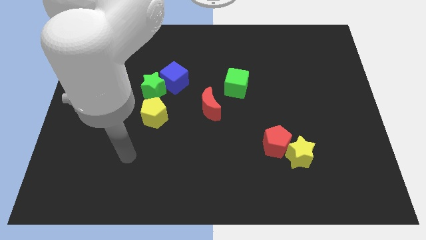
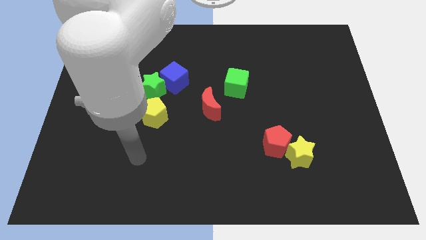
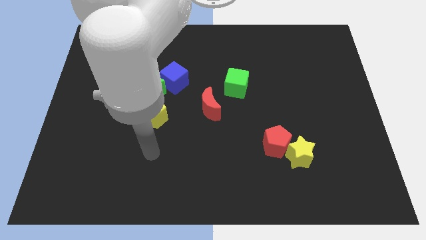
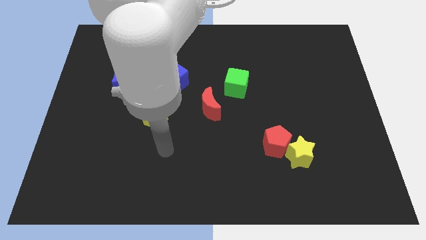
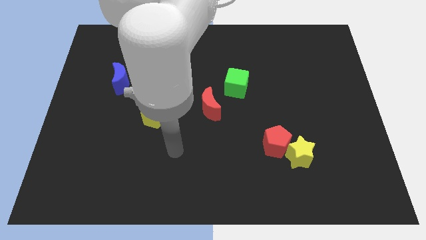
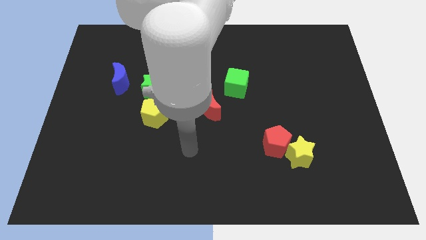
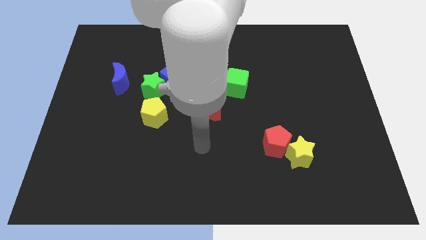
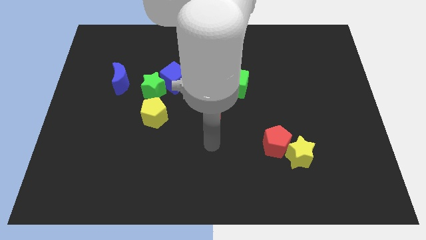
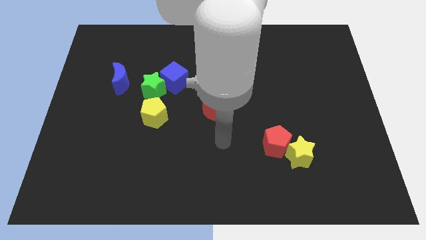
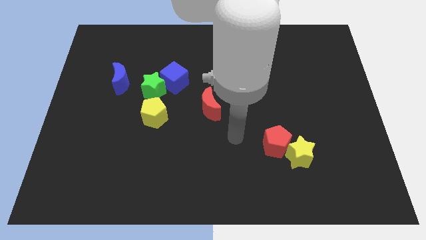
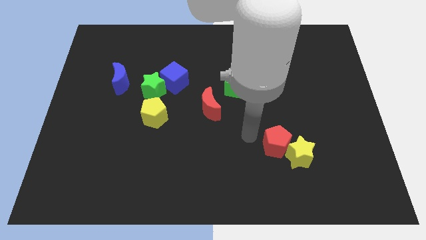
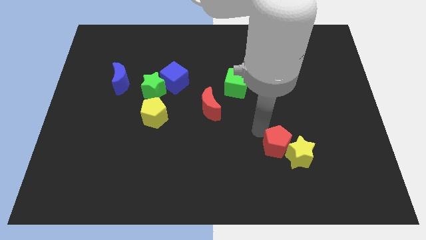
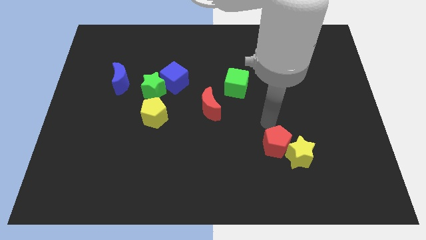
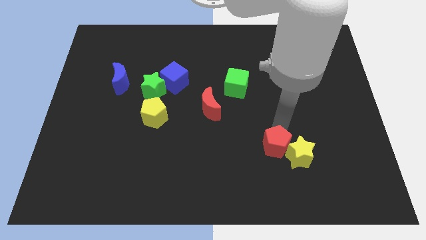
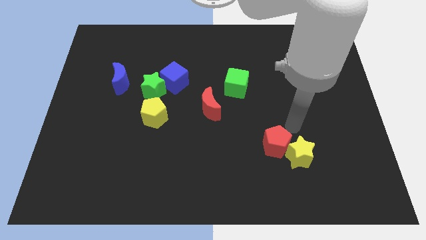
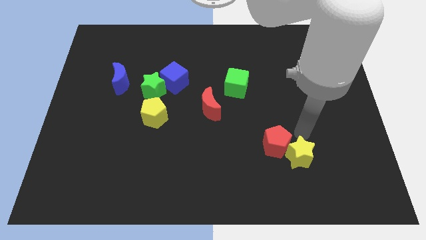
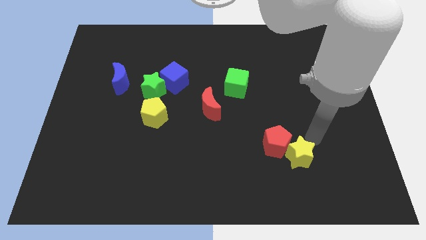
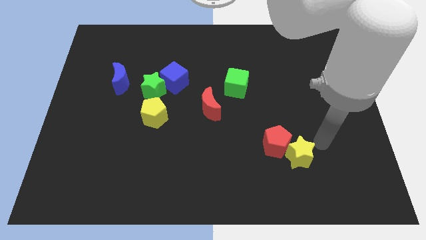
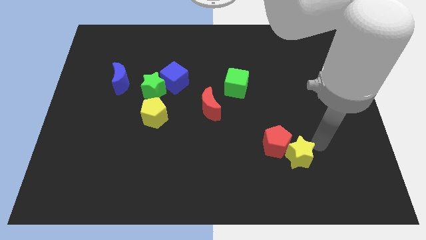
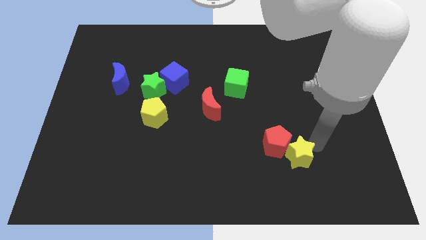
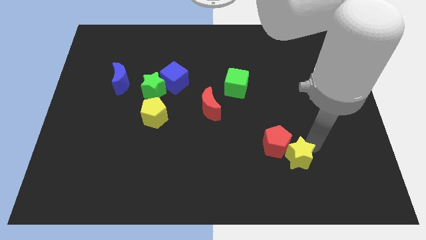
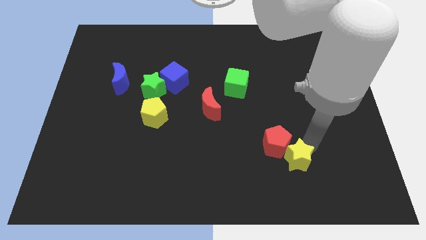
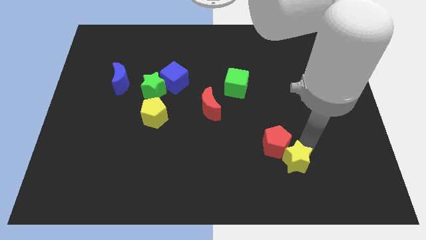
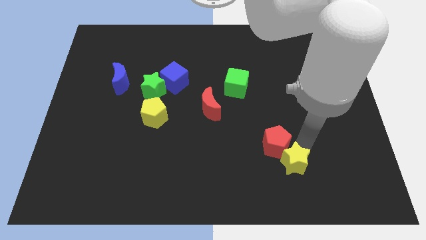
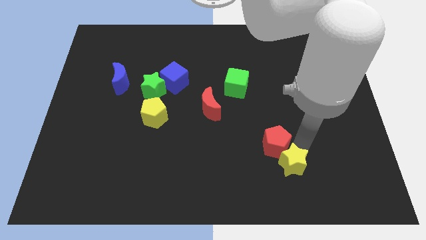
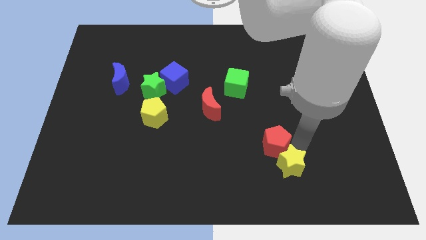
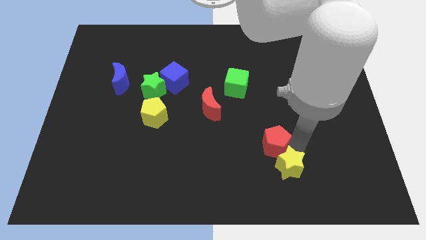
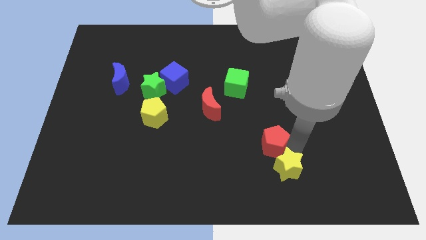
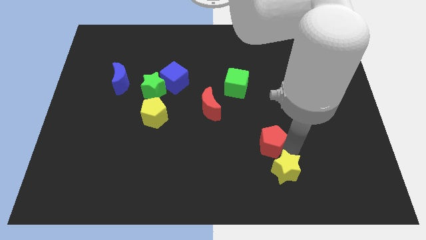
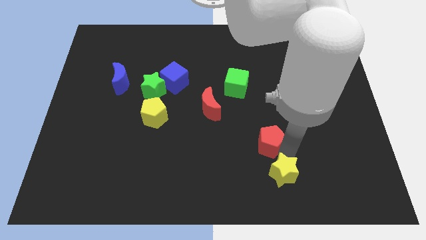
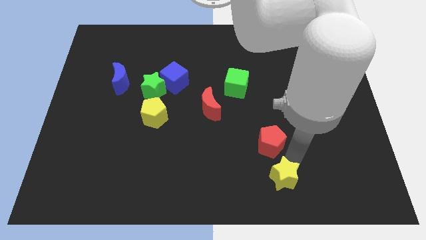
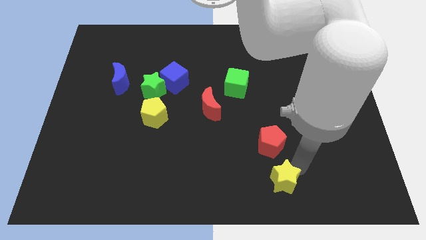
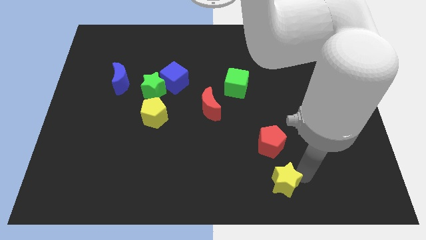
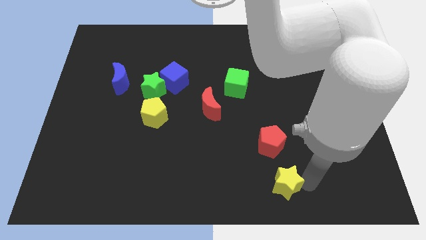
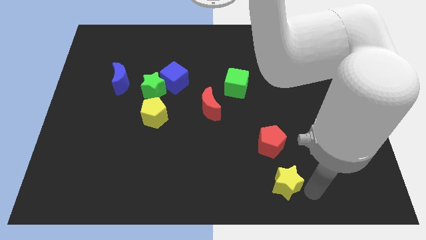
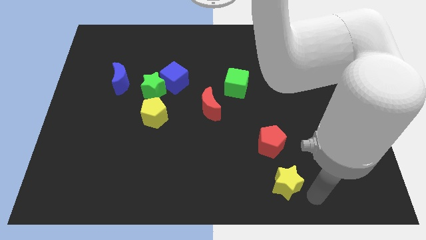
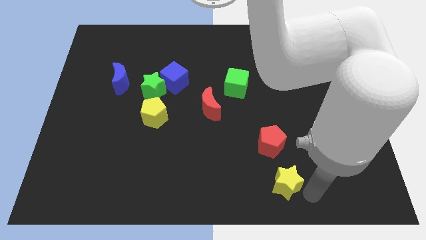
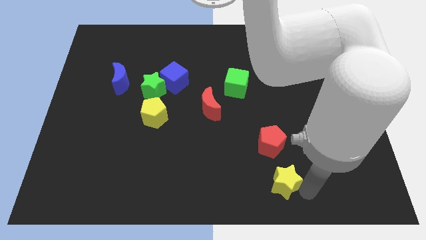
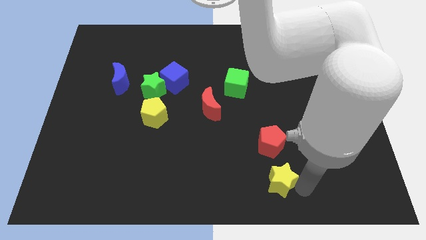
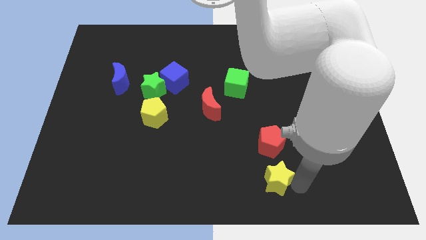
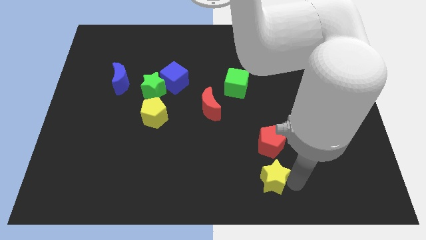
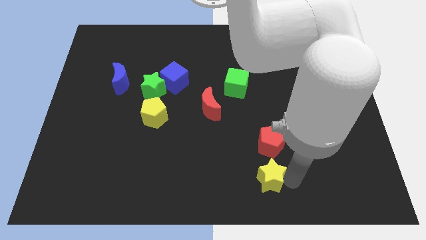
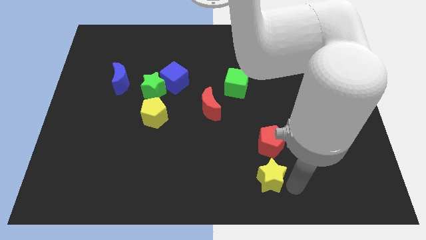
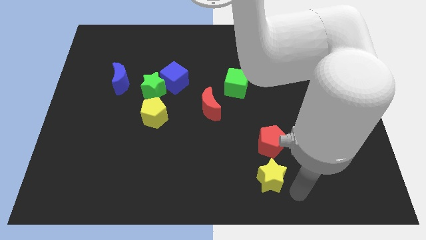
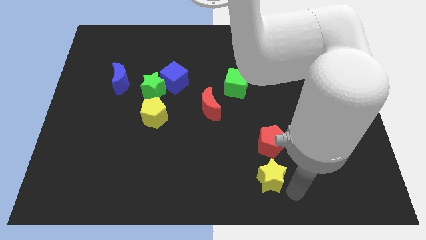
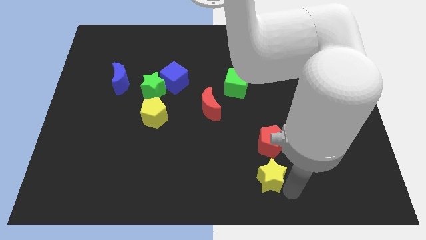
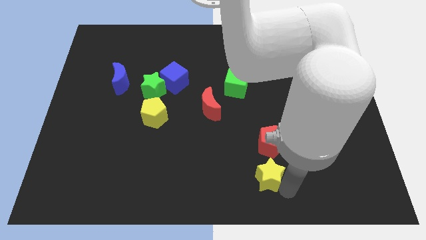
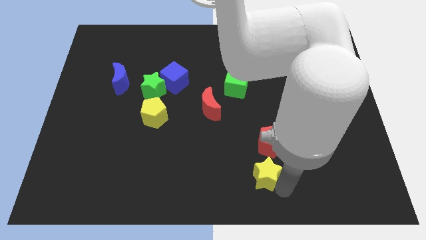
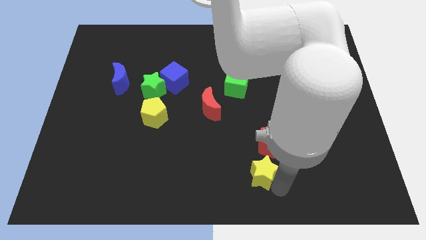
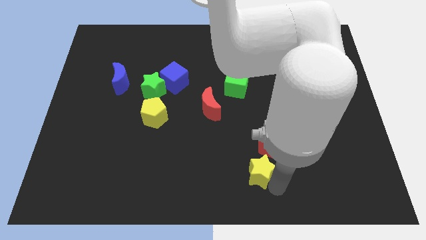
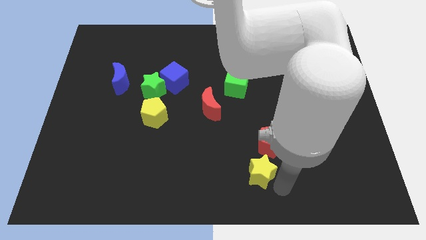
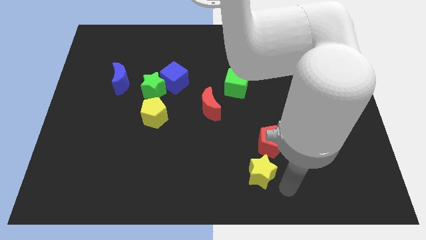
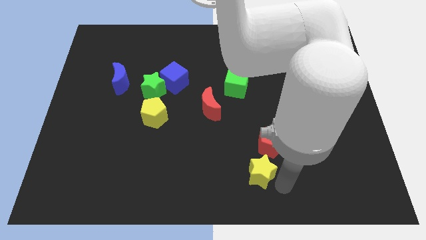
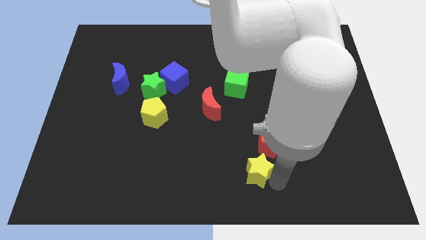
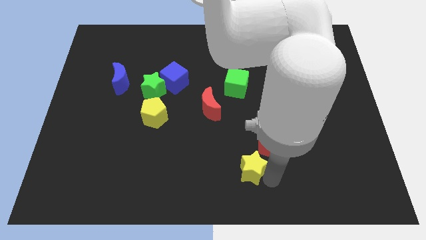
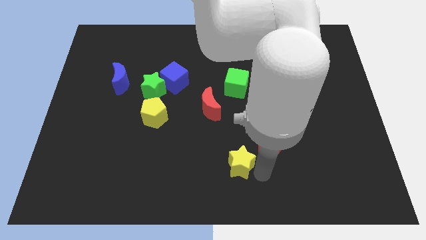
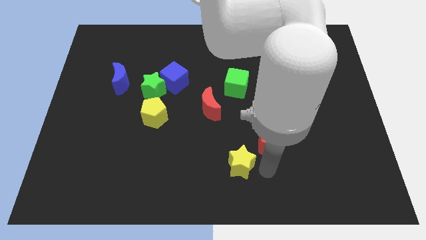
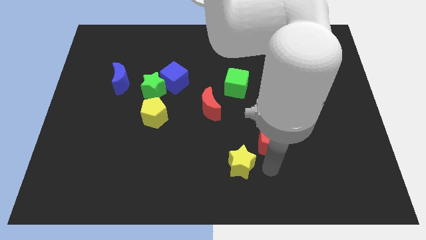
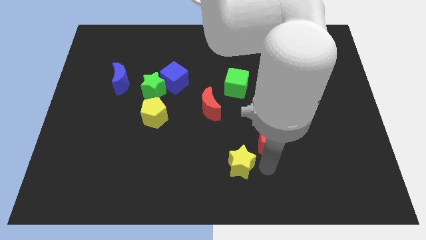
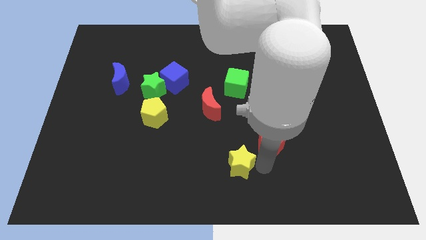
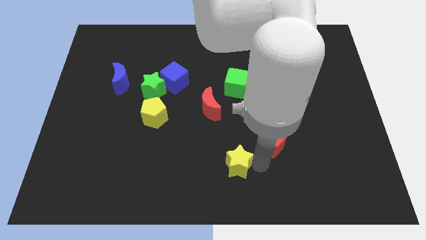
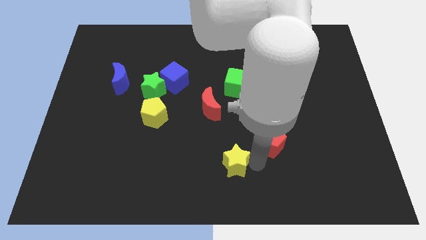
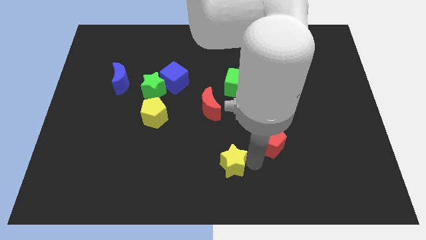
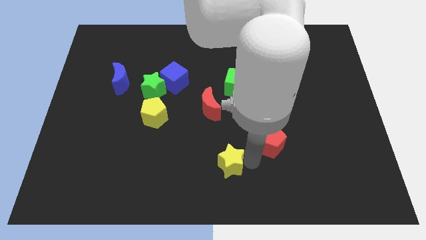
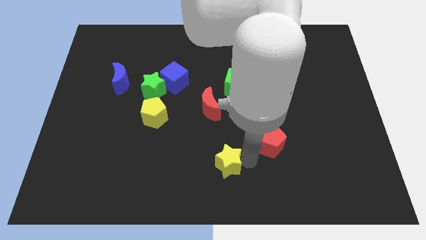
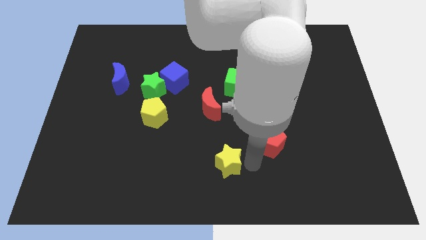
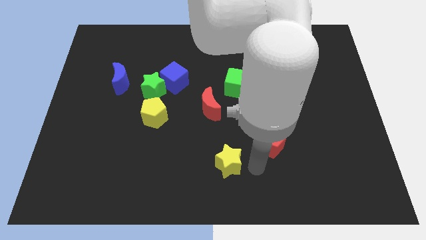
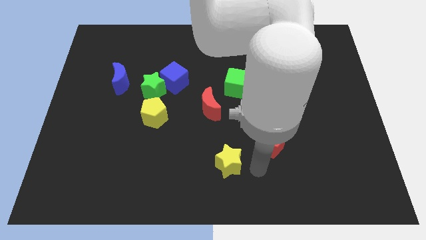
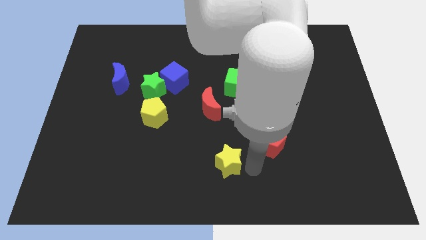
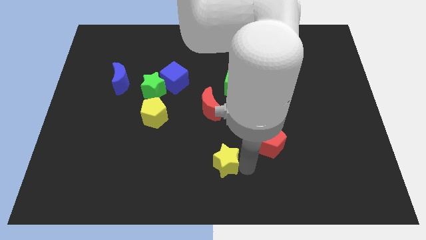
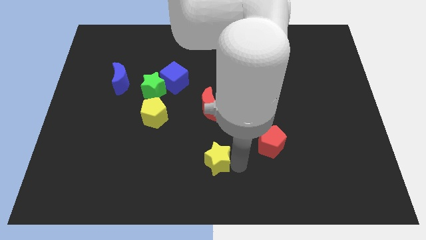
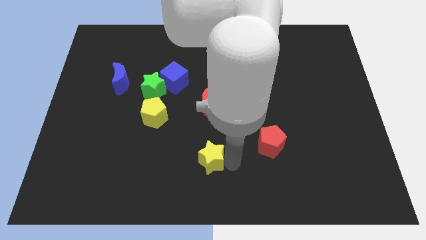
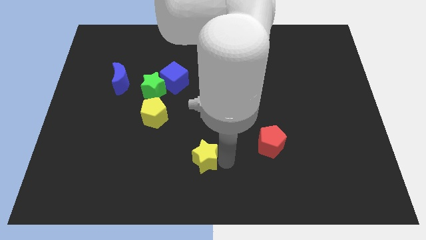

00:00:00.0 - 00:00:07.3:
push the yellow star to the left

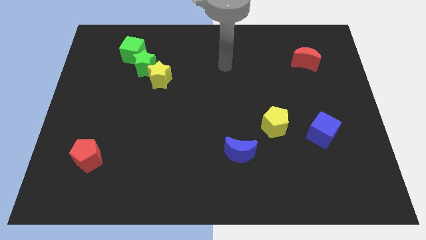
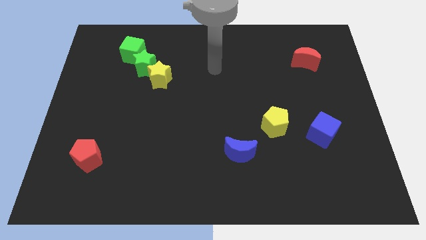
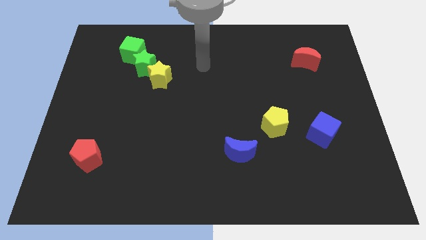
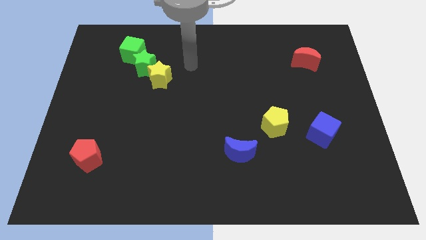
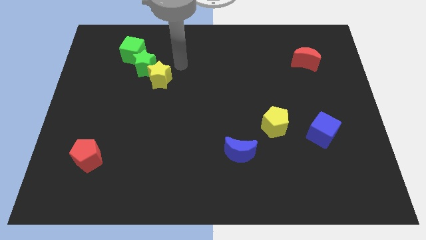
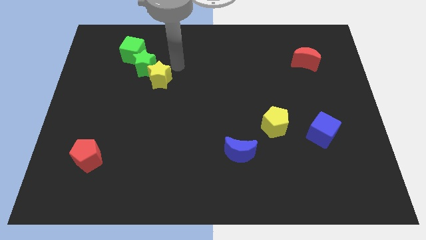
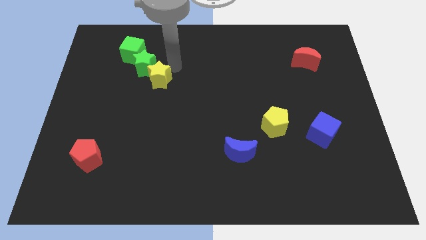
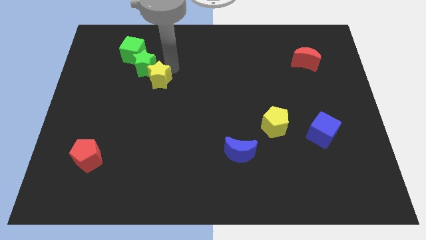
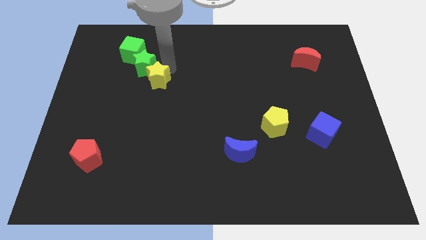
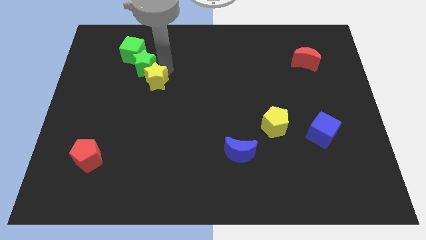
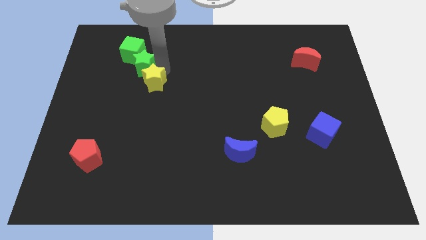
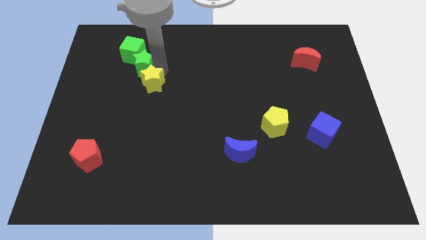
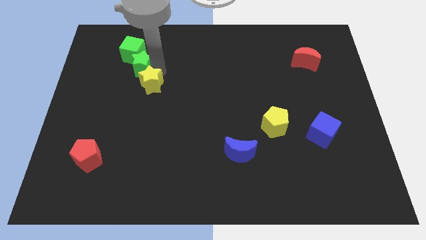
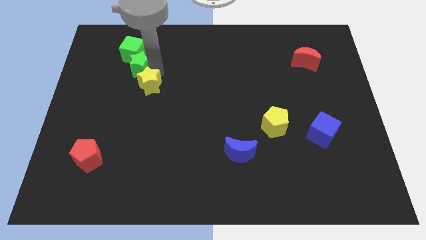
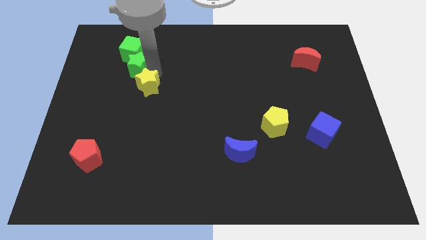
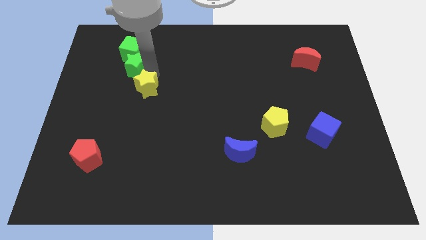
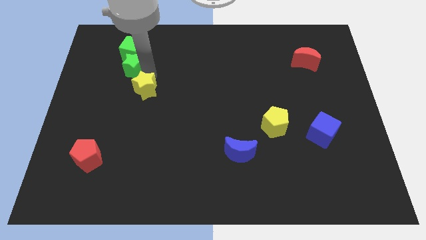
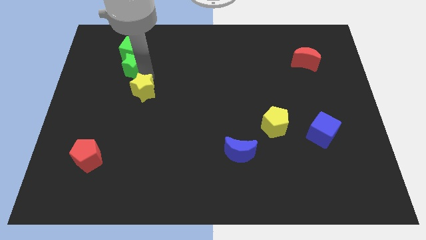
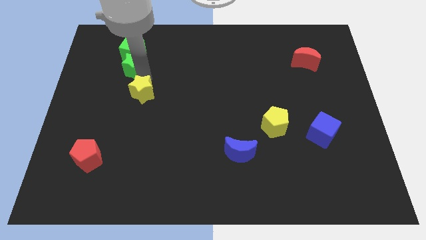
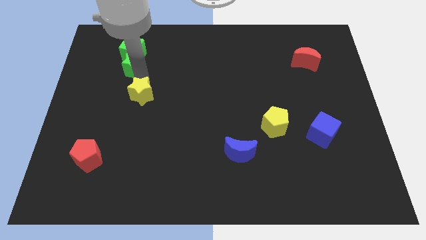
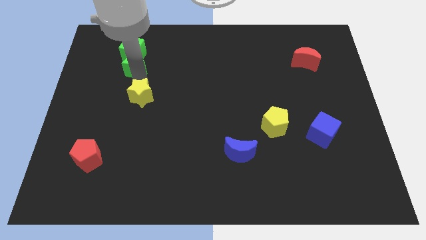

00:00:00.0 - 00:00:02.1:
move the yellow star diagonally downwards and to the left a bit
